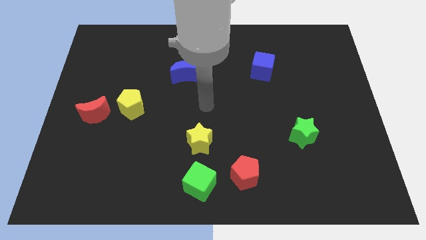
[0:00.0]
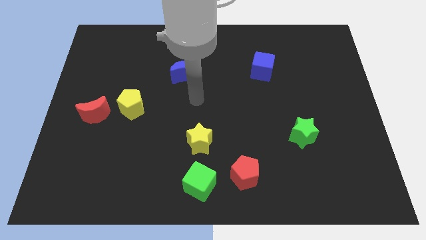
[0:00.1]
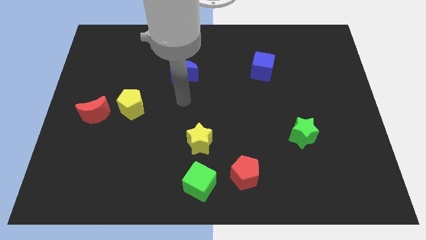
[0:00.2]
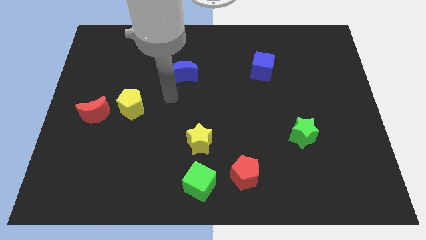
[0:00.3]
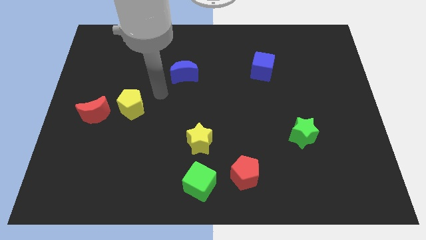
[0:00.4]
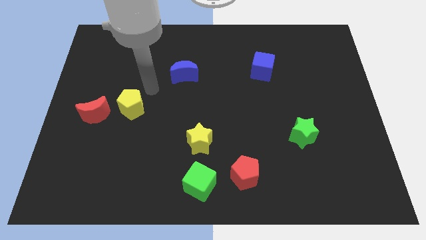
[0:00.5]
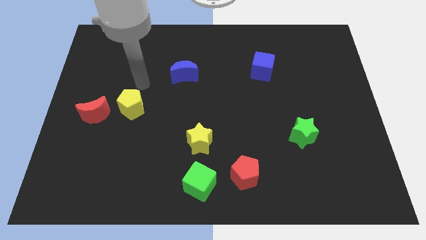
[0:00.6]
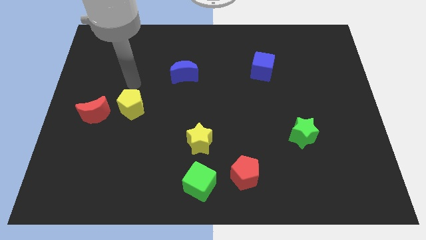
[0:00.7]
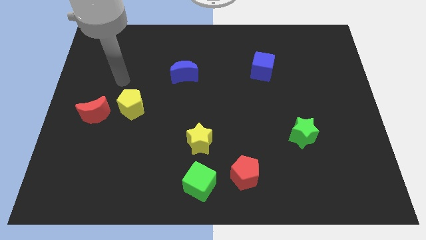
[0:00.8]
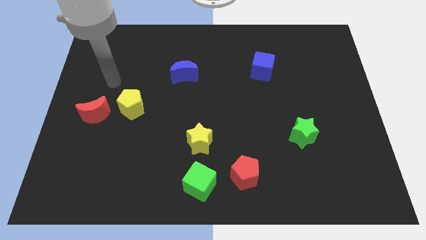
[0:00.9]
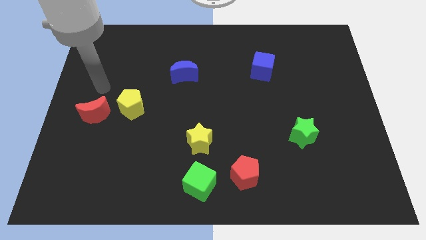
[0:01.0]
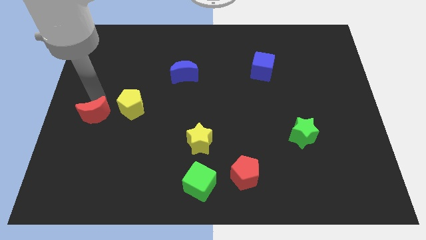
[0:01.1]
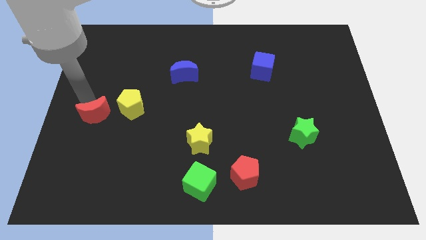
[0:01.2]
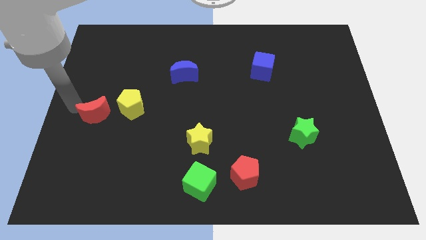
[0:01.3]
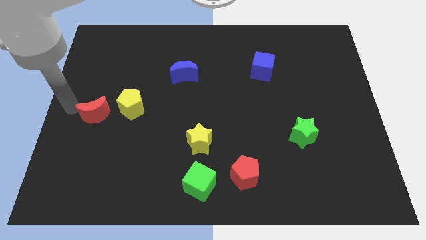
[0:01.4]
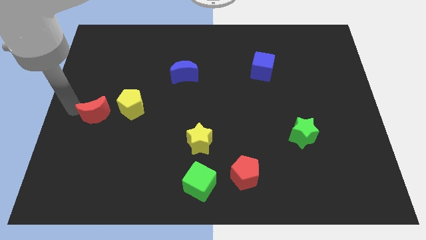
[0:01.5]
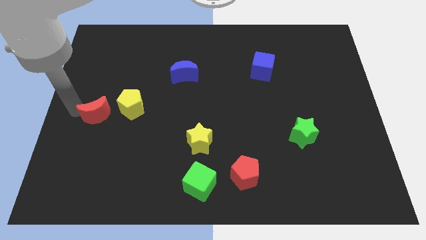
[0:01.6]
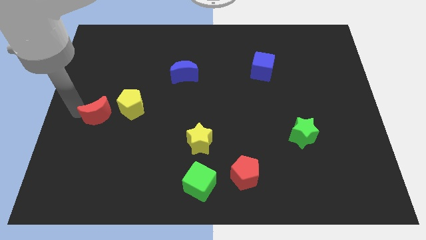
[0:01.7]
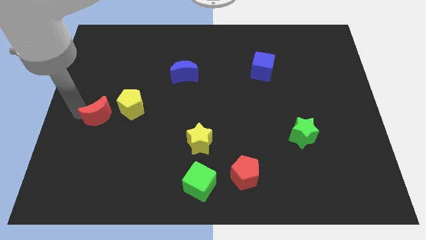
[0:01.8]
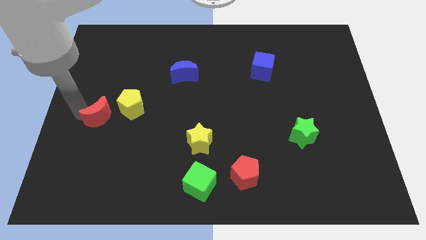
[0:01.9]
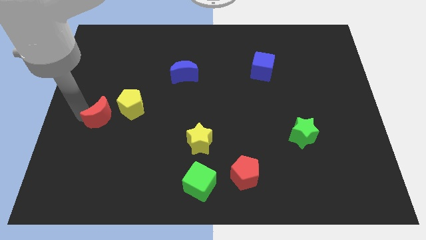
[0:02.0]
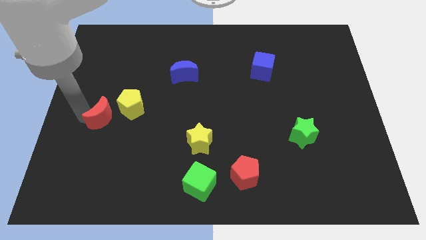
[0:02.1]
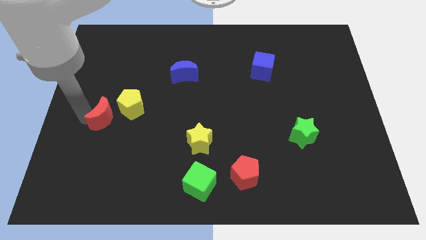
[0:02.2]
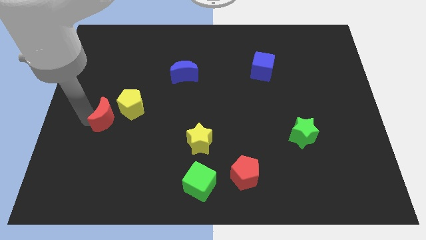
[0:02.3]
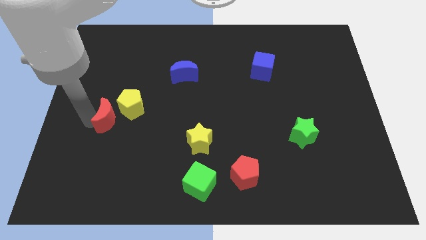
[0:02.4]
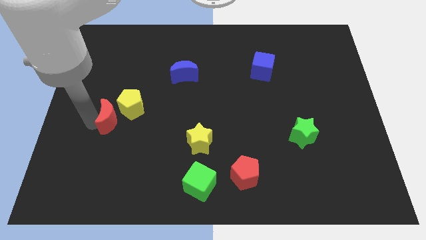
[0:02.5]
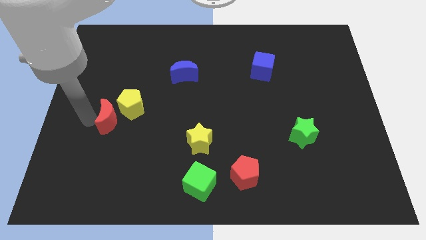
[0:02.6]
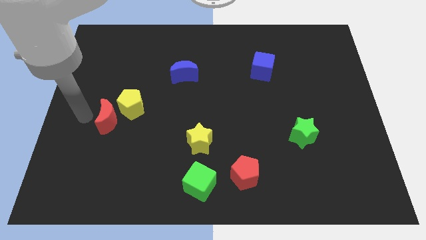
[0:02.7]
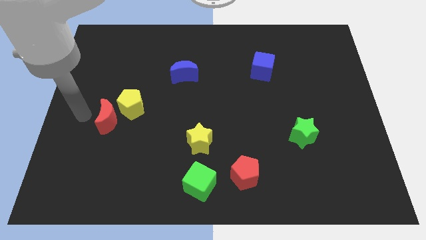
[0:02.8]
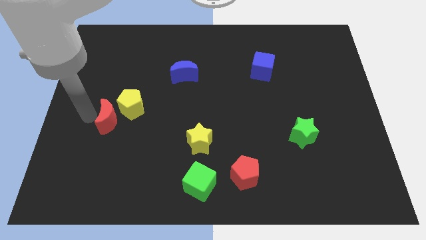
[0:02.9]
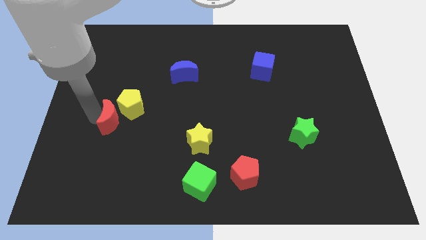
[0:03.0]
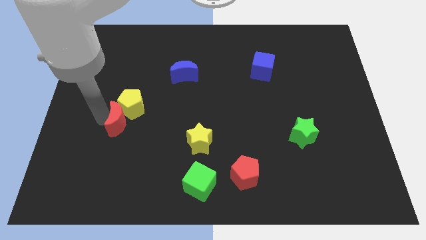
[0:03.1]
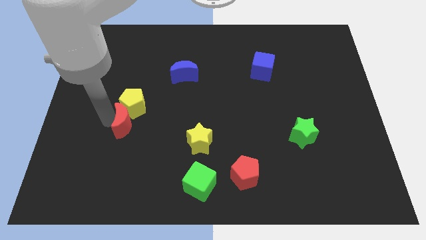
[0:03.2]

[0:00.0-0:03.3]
slightly move the red moon to the right

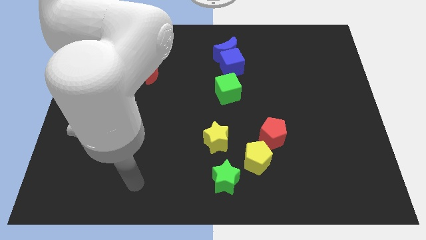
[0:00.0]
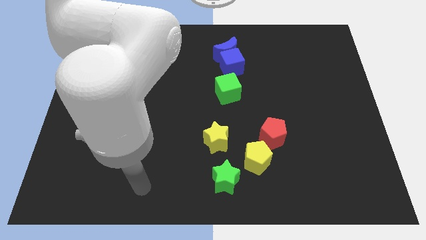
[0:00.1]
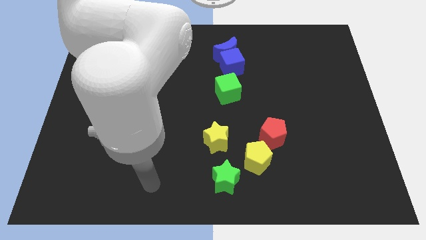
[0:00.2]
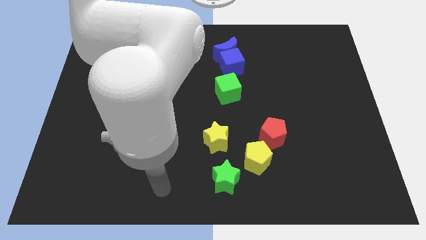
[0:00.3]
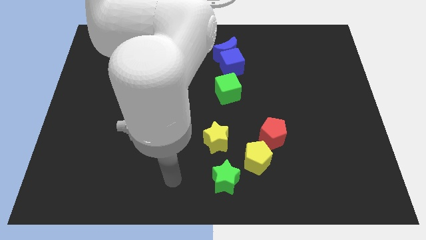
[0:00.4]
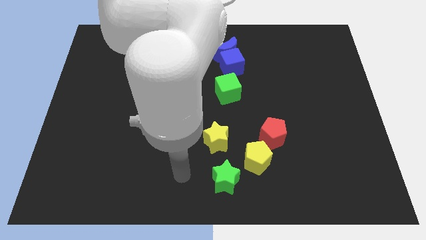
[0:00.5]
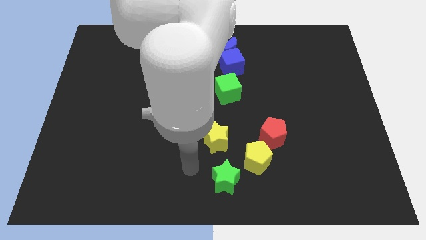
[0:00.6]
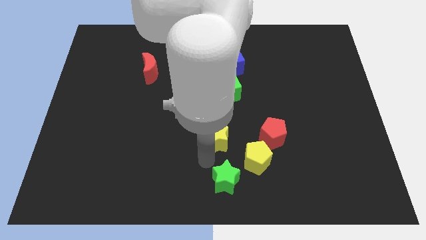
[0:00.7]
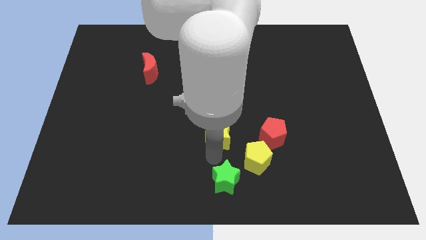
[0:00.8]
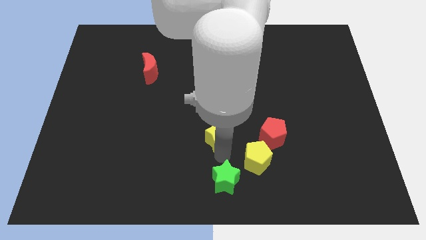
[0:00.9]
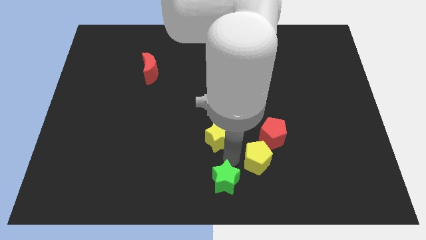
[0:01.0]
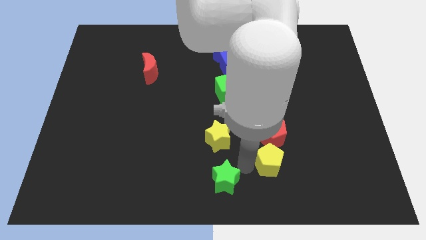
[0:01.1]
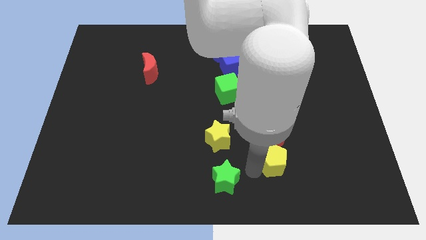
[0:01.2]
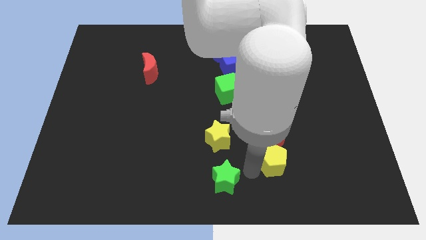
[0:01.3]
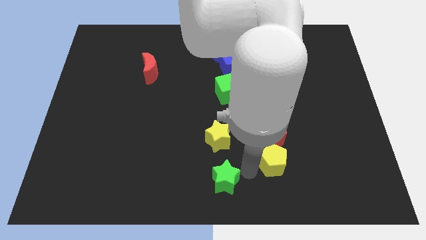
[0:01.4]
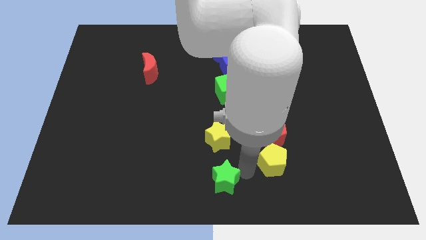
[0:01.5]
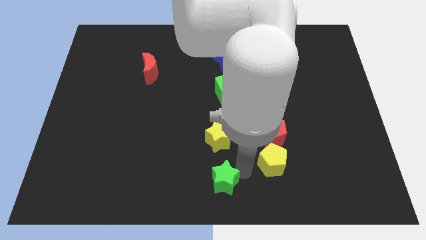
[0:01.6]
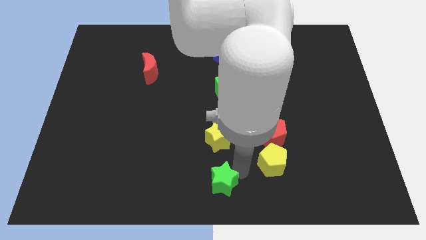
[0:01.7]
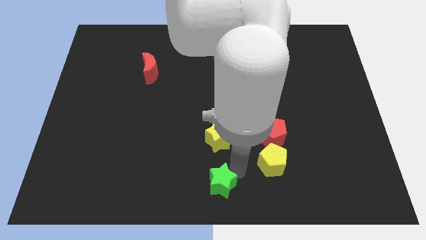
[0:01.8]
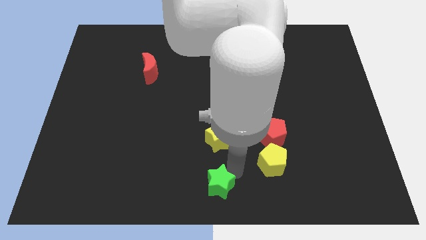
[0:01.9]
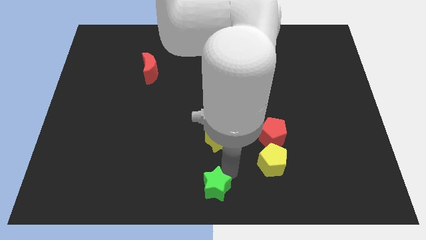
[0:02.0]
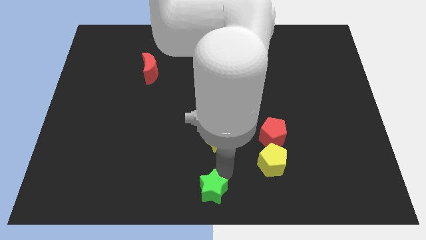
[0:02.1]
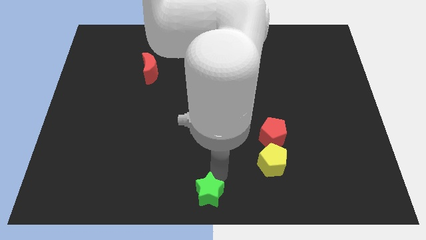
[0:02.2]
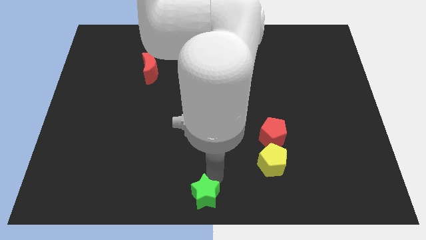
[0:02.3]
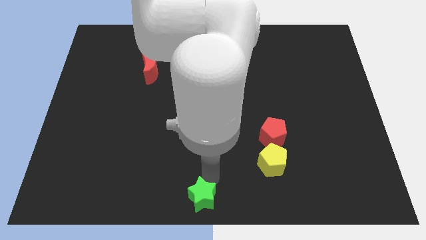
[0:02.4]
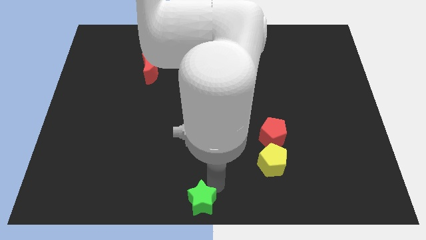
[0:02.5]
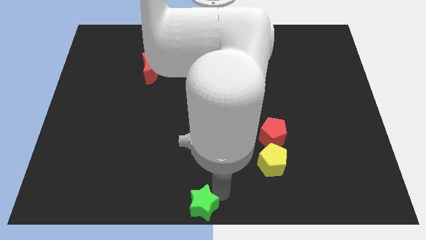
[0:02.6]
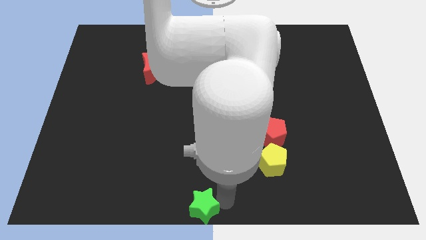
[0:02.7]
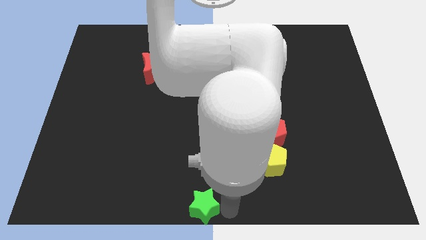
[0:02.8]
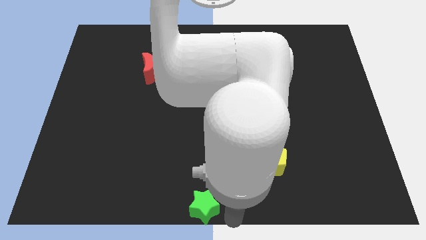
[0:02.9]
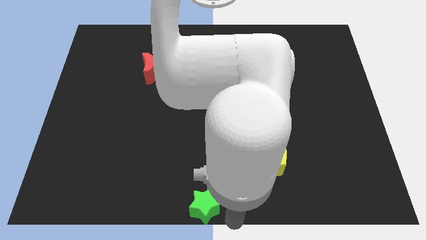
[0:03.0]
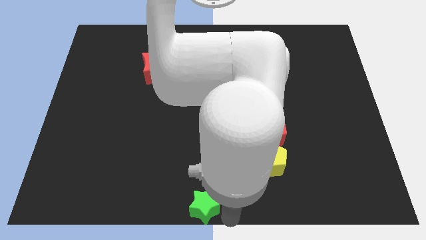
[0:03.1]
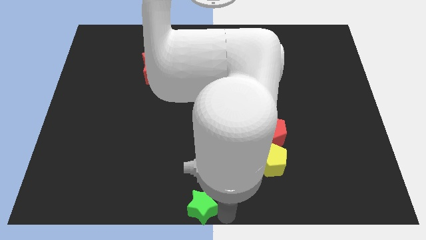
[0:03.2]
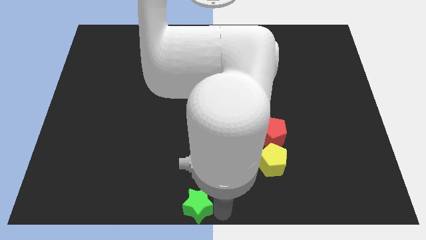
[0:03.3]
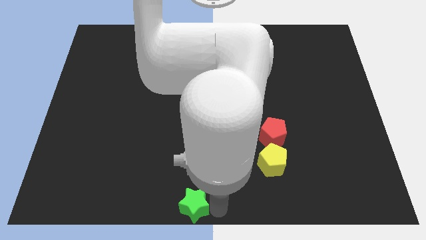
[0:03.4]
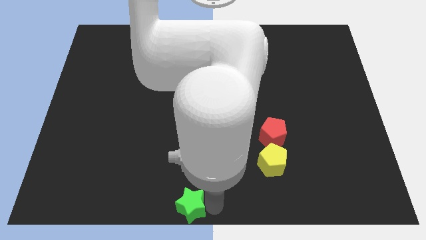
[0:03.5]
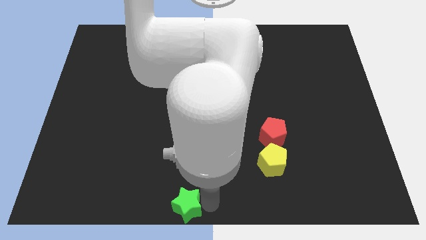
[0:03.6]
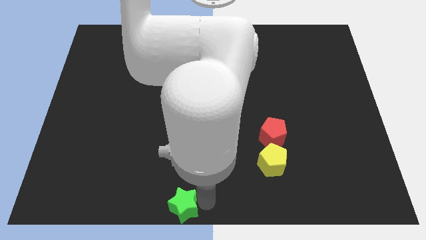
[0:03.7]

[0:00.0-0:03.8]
move the green star to the left a little bit

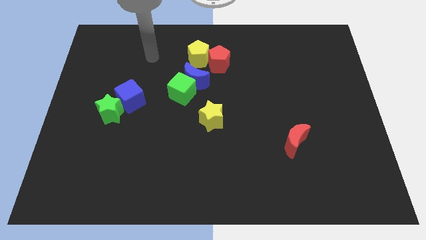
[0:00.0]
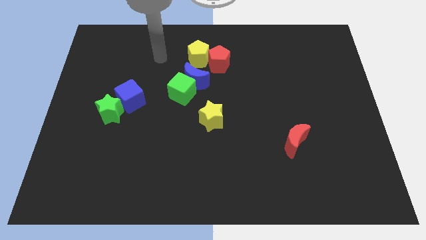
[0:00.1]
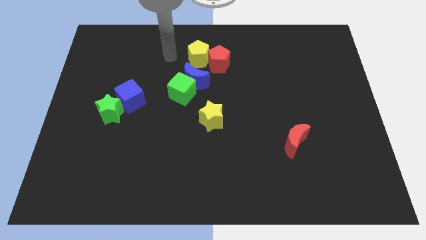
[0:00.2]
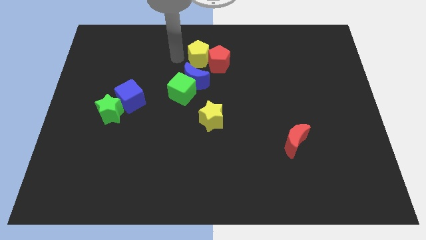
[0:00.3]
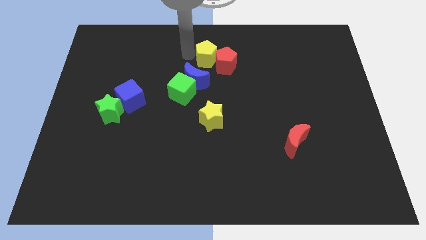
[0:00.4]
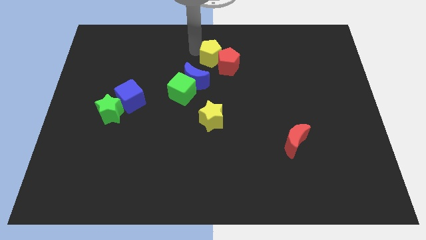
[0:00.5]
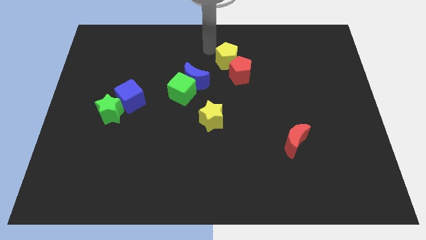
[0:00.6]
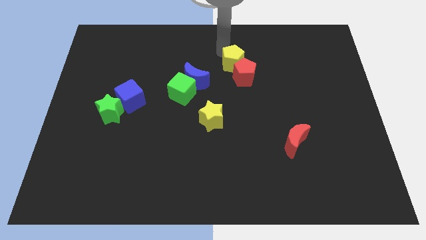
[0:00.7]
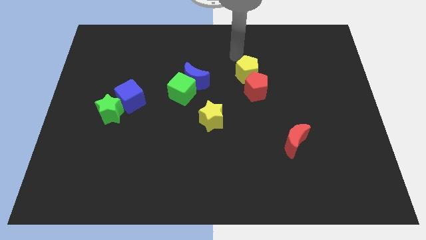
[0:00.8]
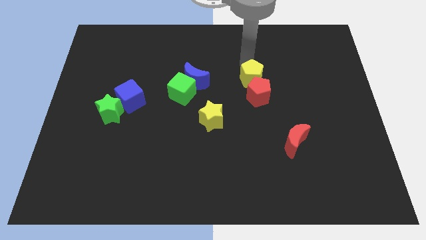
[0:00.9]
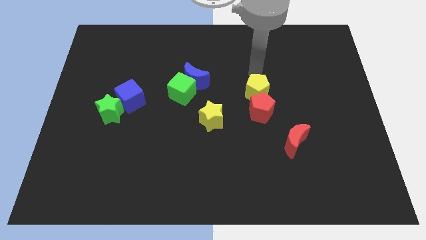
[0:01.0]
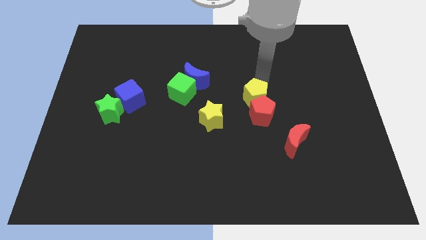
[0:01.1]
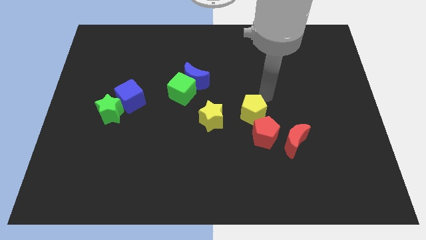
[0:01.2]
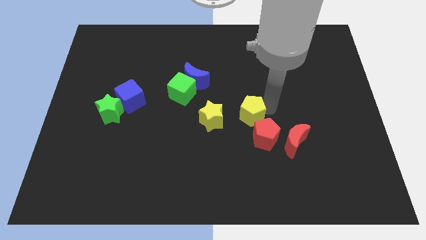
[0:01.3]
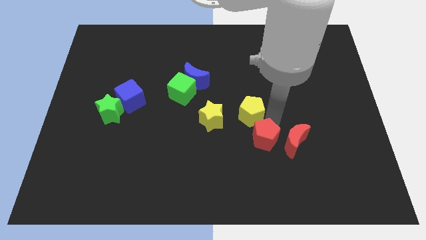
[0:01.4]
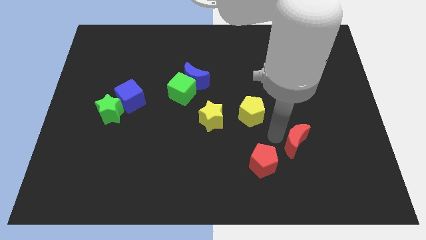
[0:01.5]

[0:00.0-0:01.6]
move the red pentagon downwards
